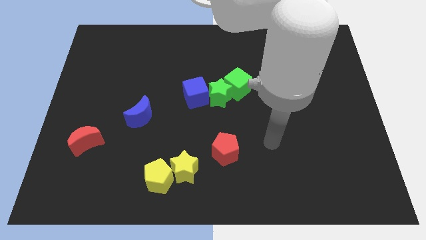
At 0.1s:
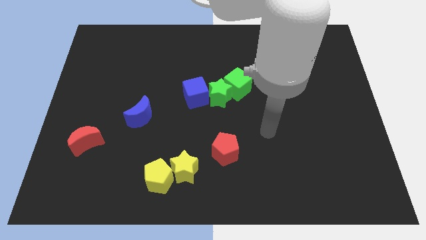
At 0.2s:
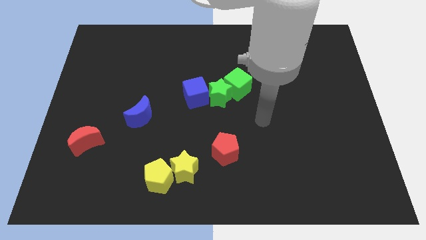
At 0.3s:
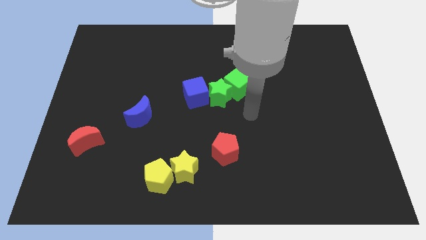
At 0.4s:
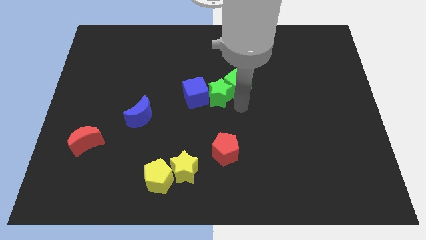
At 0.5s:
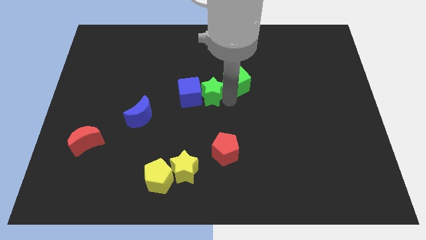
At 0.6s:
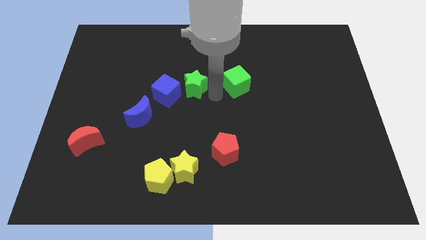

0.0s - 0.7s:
move the green cube away from the green star

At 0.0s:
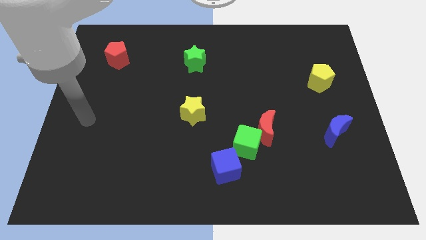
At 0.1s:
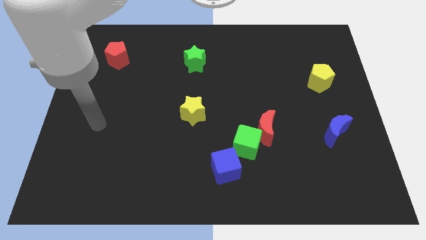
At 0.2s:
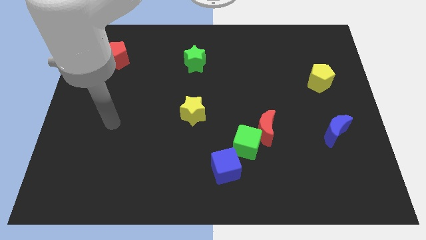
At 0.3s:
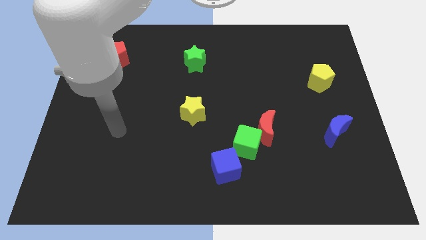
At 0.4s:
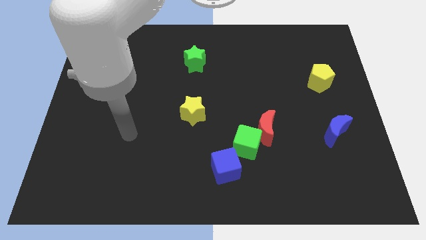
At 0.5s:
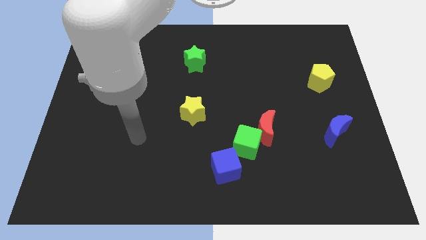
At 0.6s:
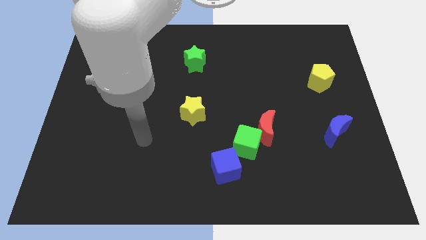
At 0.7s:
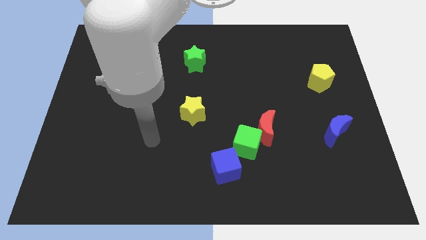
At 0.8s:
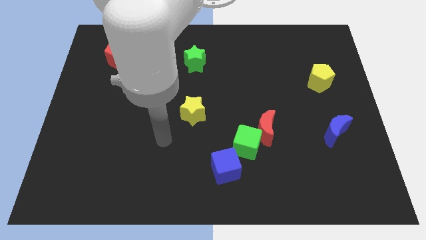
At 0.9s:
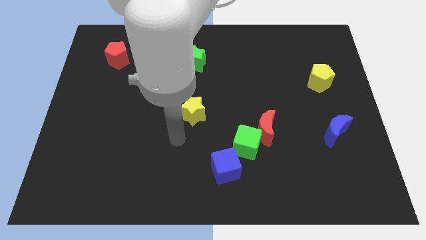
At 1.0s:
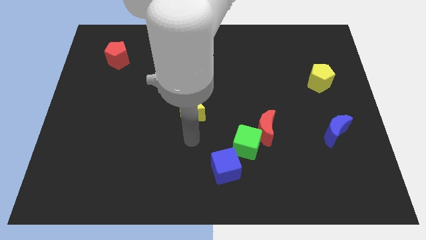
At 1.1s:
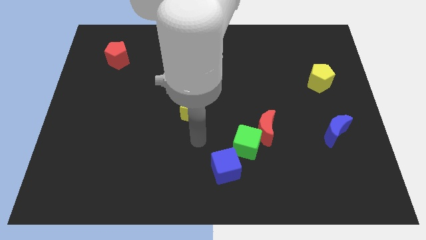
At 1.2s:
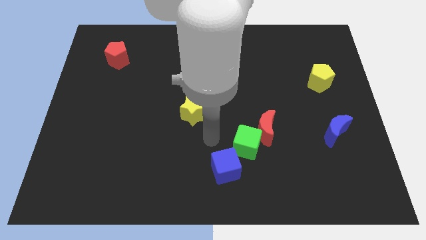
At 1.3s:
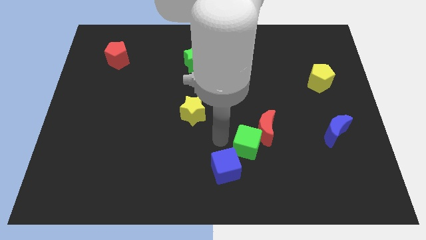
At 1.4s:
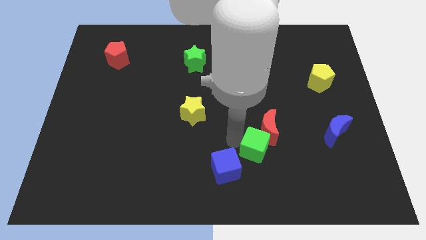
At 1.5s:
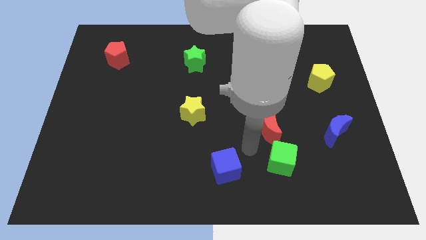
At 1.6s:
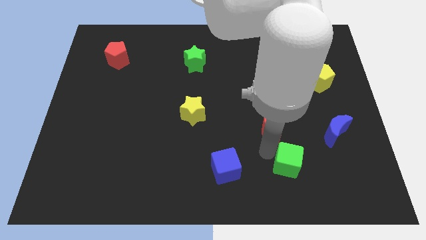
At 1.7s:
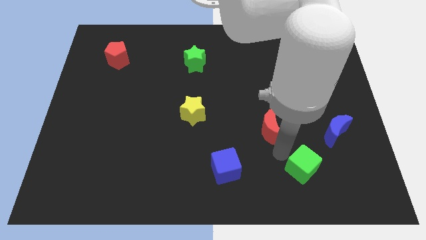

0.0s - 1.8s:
separate the red moon from the green cube

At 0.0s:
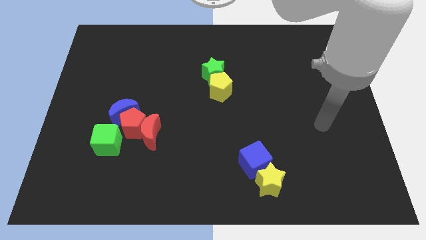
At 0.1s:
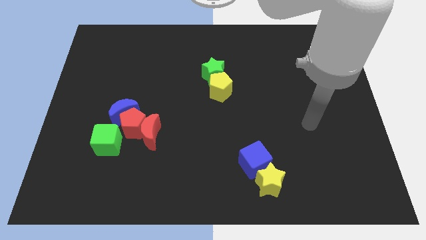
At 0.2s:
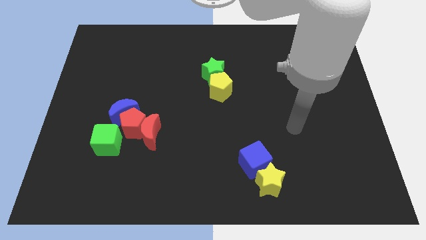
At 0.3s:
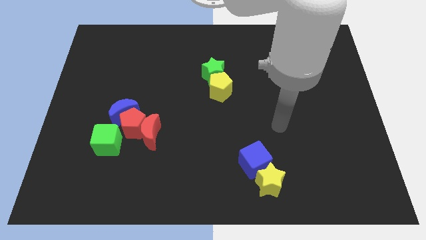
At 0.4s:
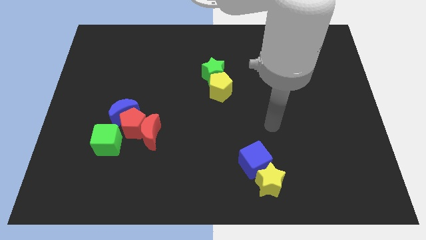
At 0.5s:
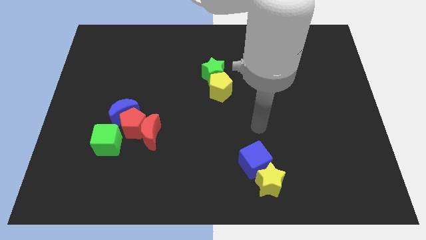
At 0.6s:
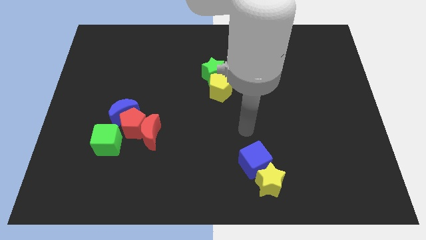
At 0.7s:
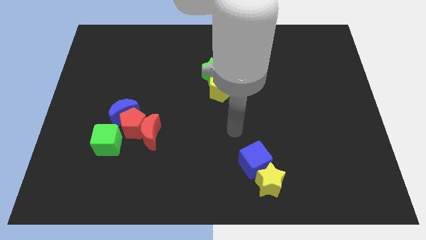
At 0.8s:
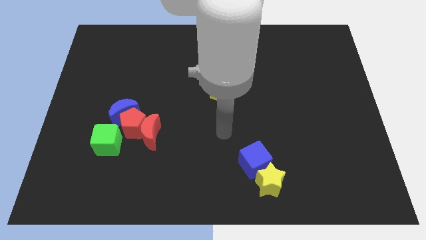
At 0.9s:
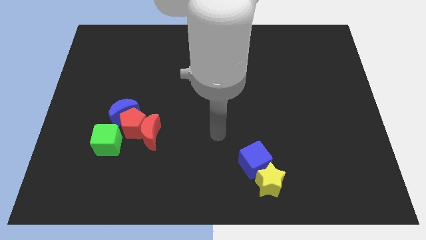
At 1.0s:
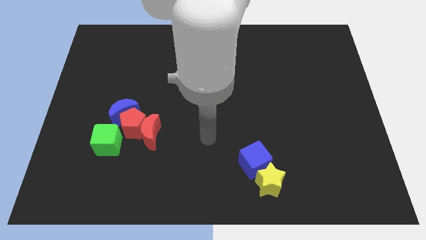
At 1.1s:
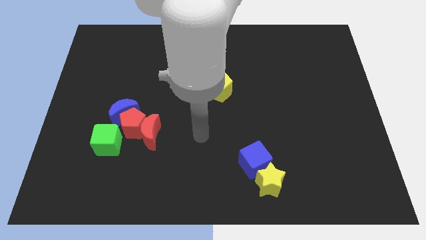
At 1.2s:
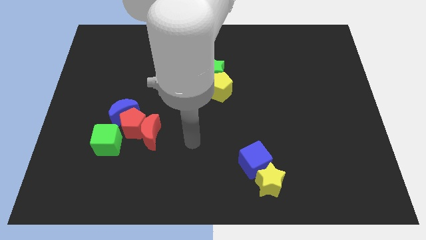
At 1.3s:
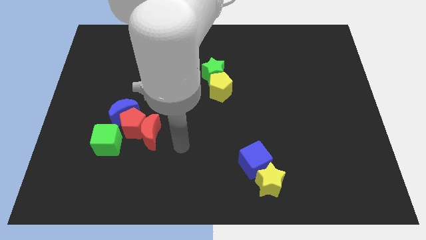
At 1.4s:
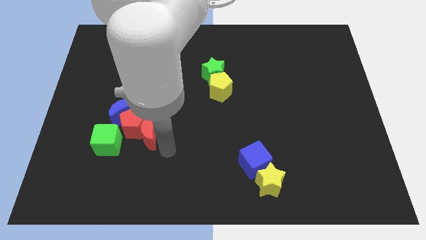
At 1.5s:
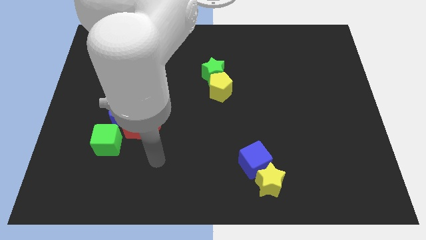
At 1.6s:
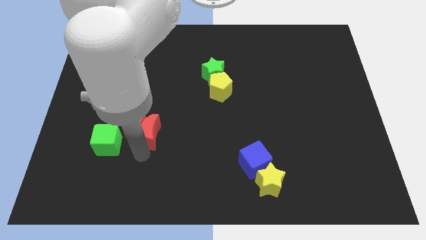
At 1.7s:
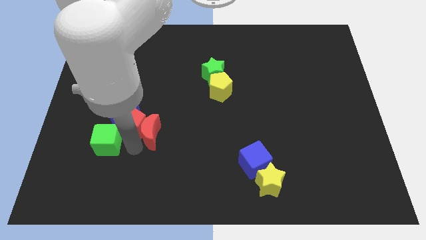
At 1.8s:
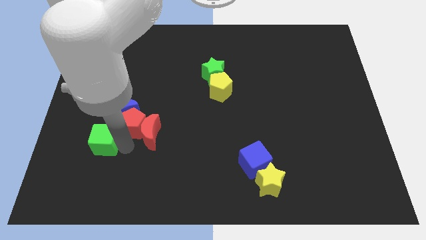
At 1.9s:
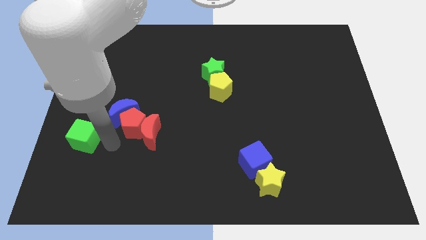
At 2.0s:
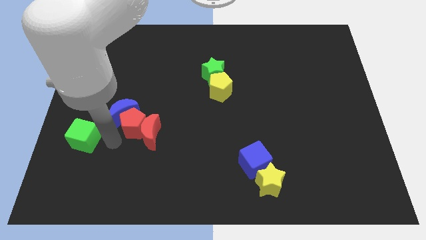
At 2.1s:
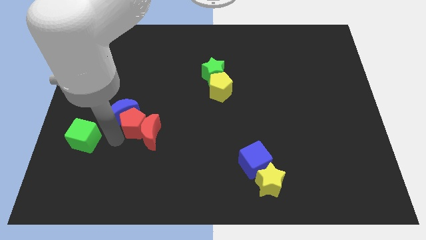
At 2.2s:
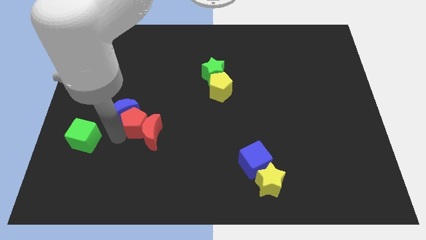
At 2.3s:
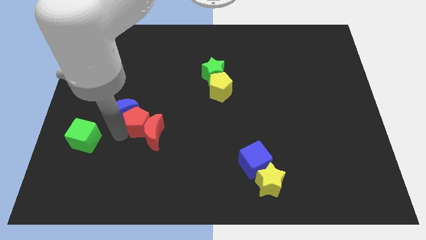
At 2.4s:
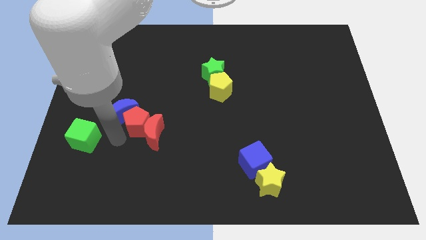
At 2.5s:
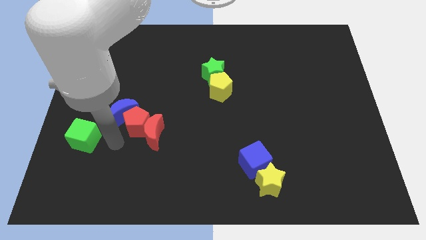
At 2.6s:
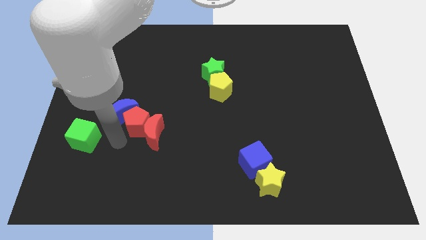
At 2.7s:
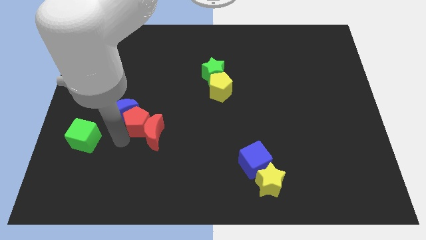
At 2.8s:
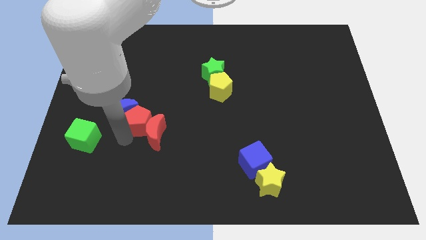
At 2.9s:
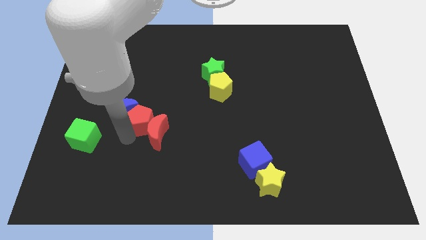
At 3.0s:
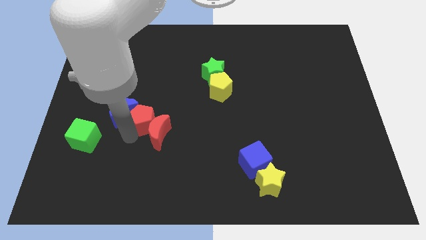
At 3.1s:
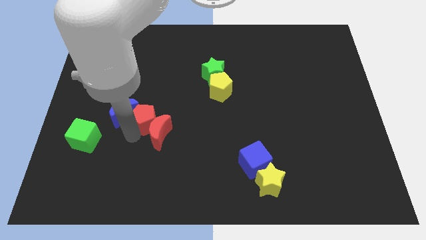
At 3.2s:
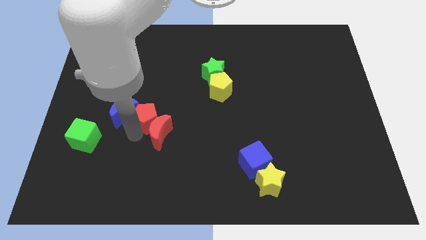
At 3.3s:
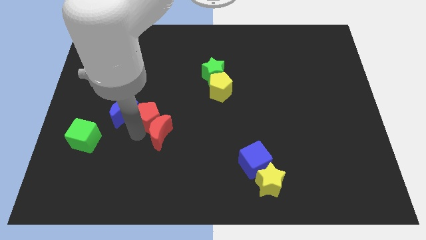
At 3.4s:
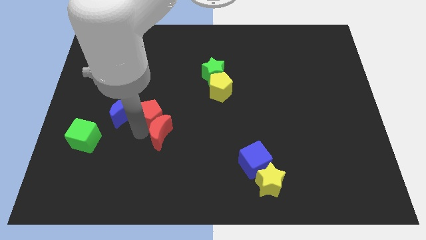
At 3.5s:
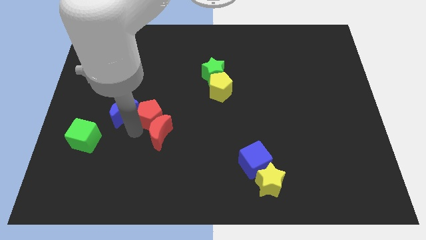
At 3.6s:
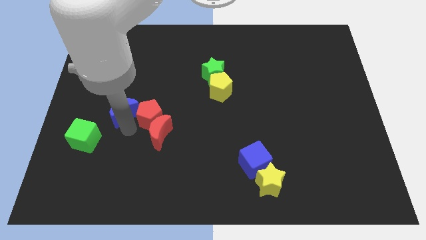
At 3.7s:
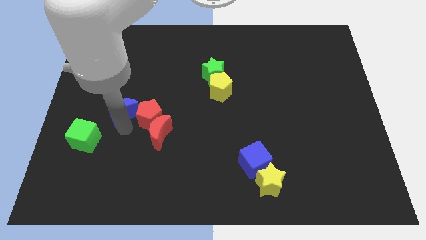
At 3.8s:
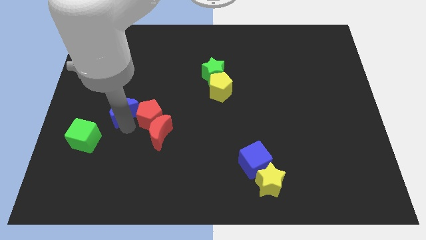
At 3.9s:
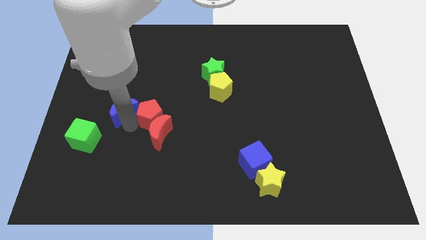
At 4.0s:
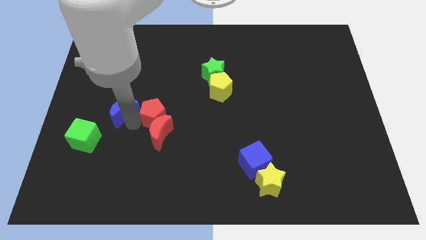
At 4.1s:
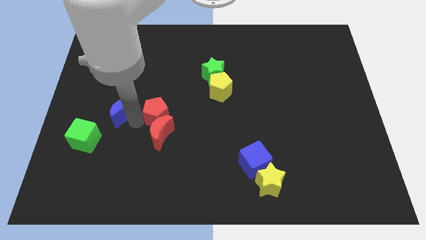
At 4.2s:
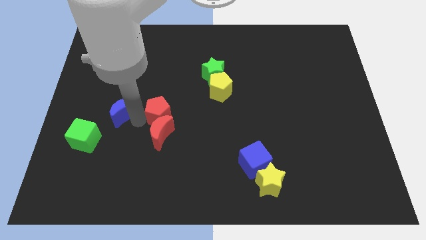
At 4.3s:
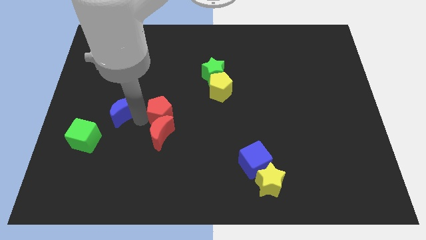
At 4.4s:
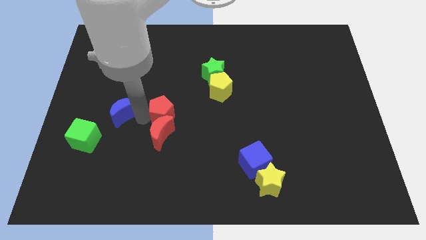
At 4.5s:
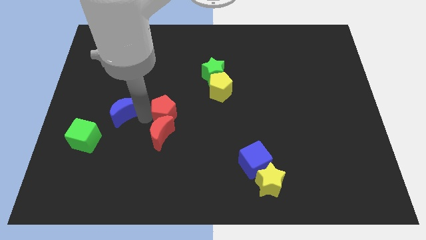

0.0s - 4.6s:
move the red pentagon away from the group

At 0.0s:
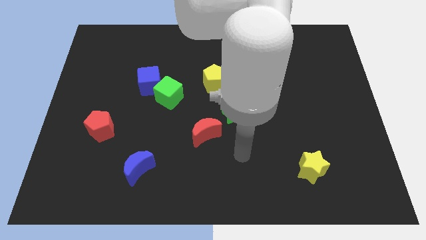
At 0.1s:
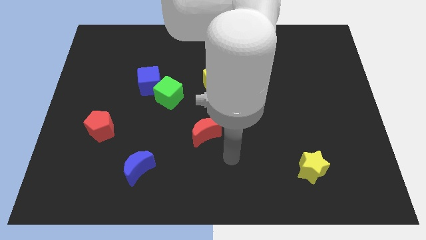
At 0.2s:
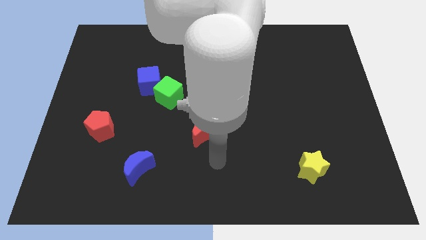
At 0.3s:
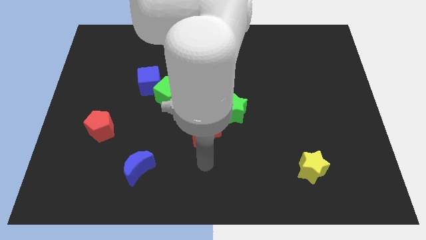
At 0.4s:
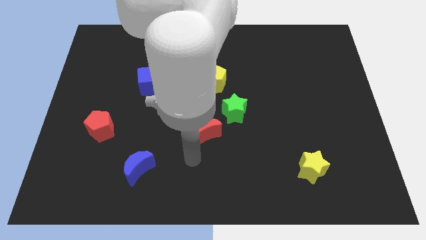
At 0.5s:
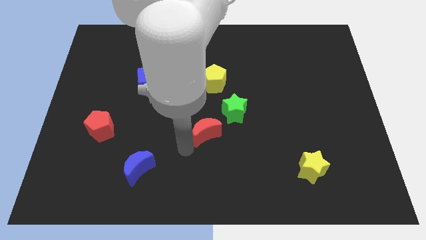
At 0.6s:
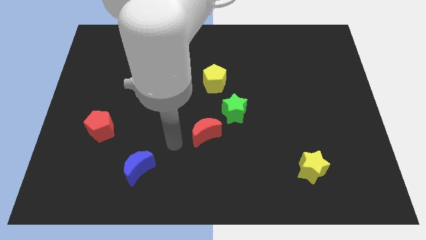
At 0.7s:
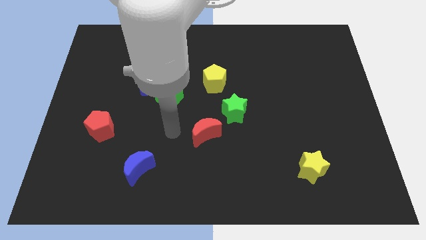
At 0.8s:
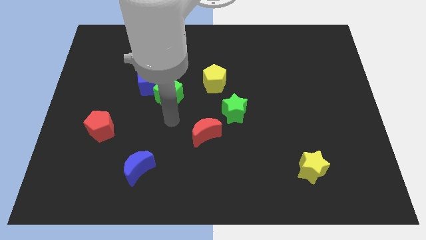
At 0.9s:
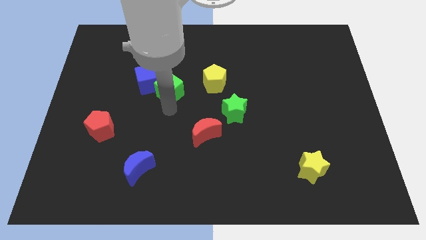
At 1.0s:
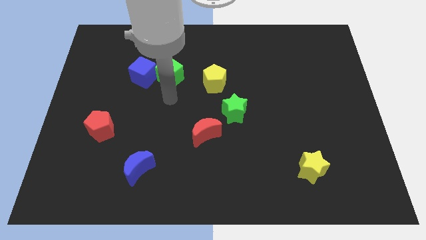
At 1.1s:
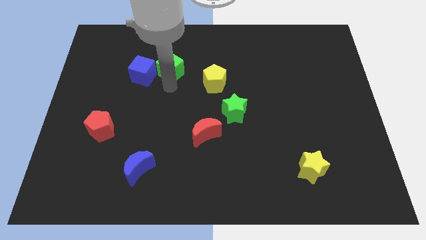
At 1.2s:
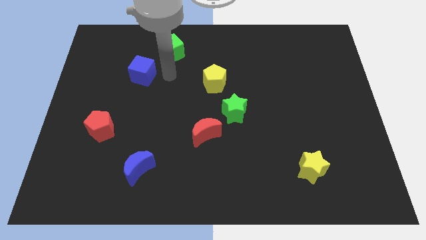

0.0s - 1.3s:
pull the blue cube apart from the green cube

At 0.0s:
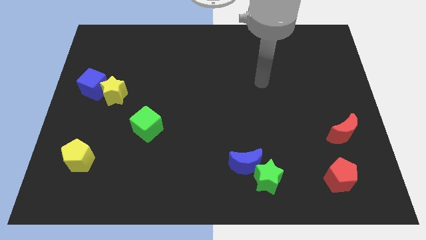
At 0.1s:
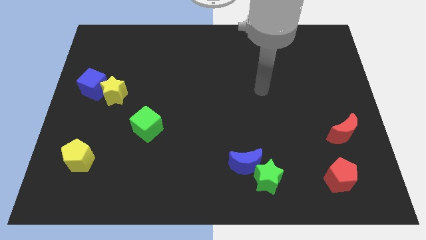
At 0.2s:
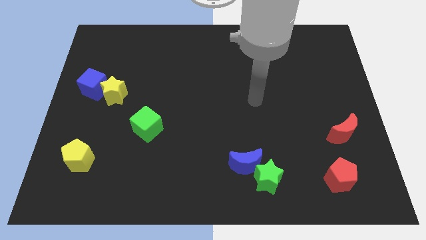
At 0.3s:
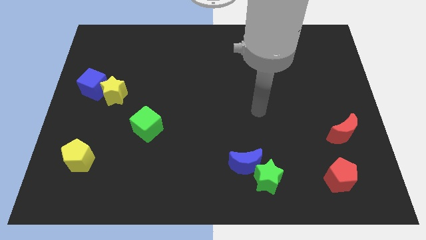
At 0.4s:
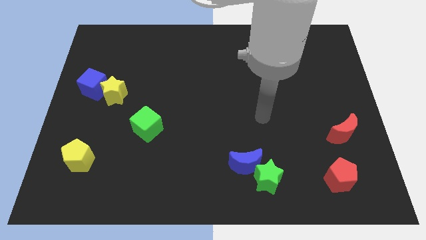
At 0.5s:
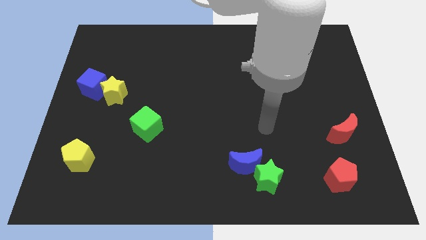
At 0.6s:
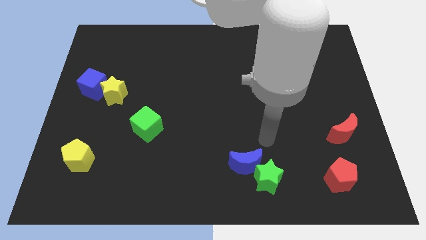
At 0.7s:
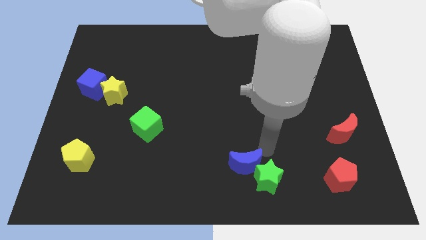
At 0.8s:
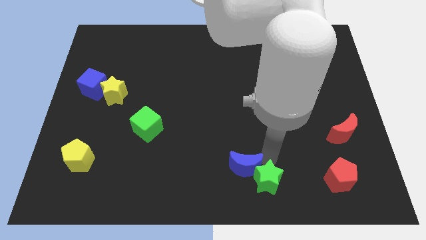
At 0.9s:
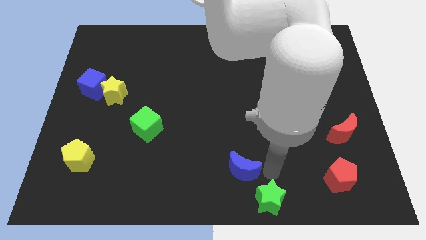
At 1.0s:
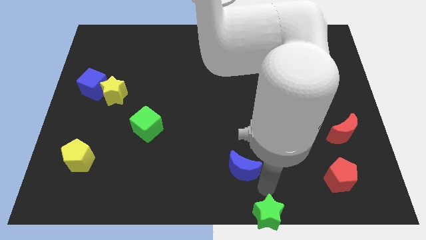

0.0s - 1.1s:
pull the blue moon apart from the green star
